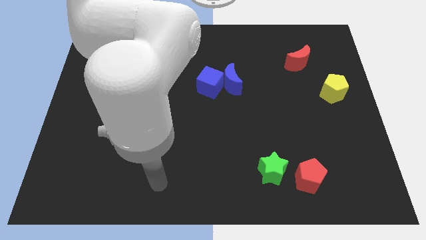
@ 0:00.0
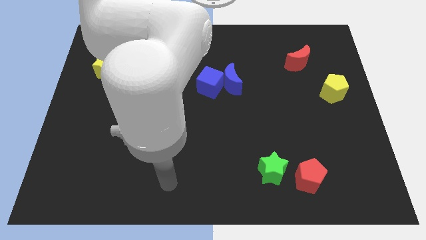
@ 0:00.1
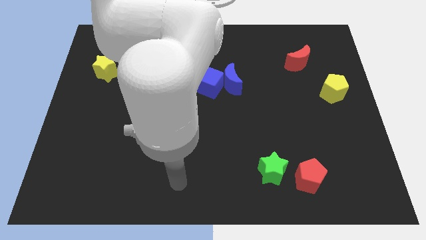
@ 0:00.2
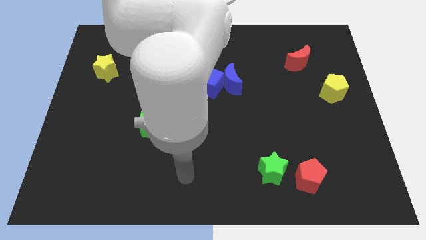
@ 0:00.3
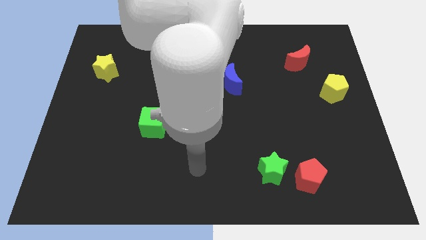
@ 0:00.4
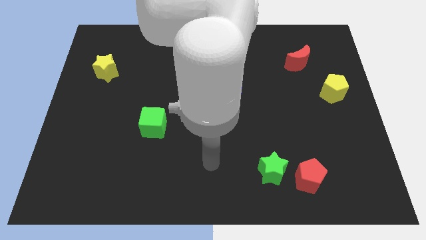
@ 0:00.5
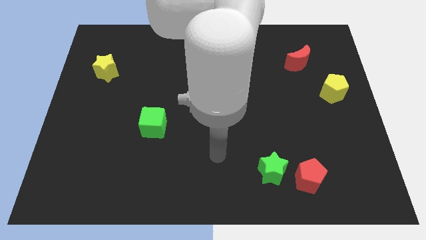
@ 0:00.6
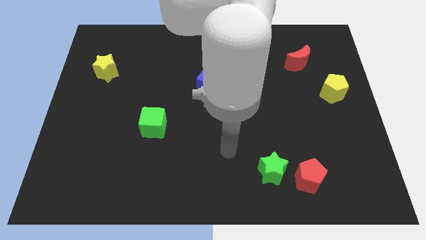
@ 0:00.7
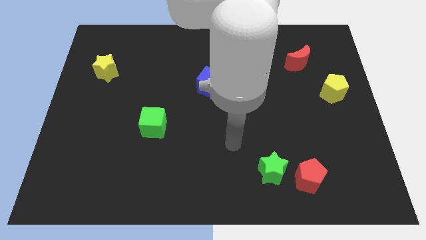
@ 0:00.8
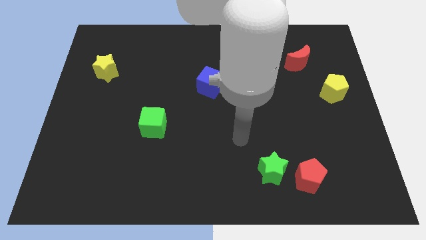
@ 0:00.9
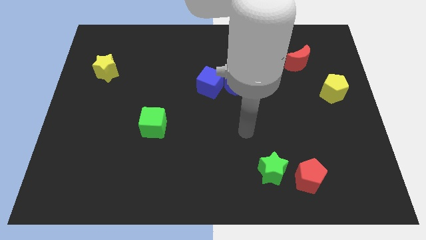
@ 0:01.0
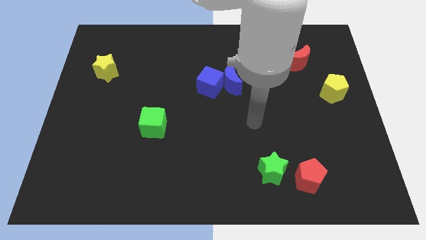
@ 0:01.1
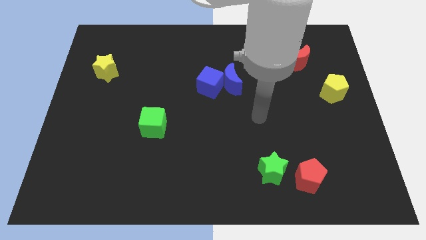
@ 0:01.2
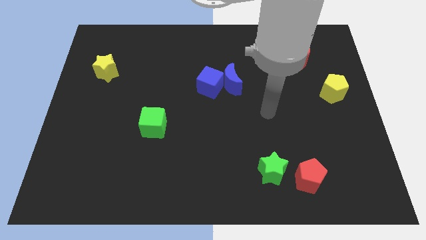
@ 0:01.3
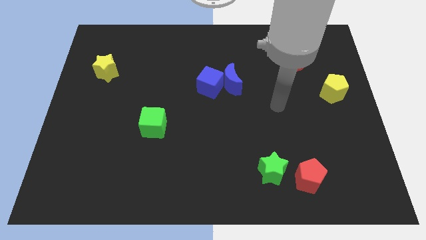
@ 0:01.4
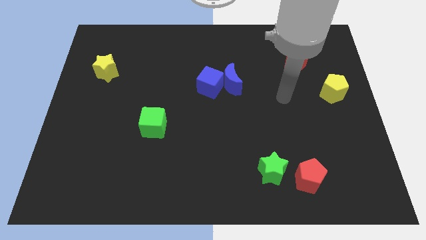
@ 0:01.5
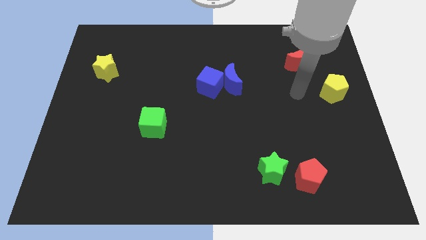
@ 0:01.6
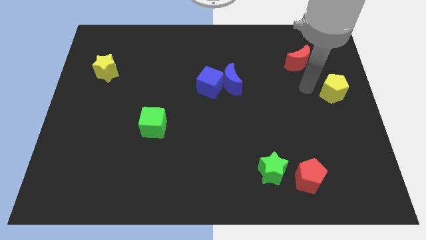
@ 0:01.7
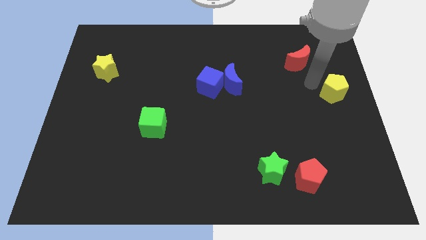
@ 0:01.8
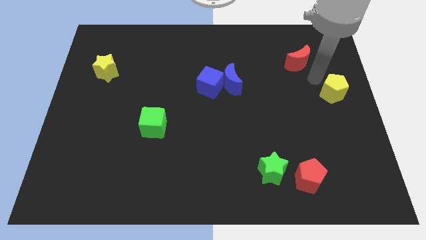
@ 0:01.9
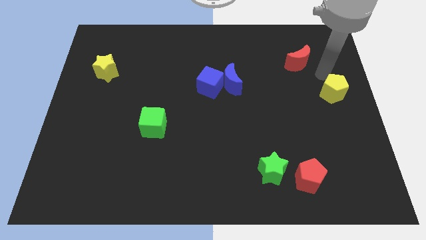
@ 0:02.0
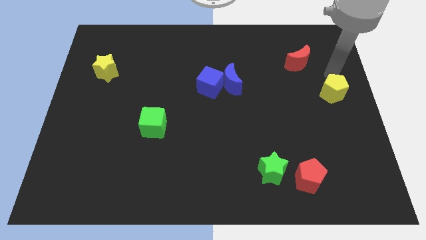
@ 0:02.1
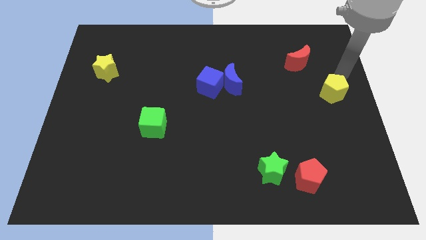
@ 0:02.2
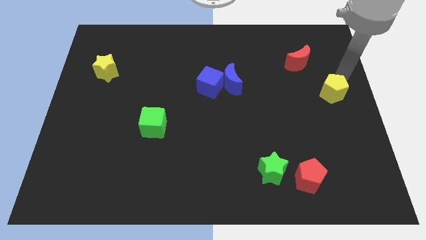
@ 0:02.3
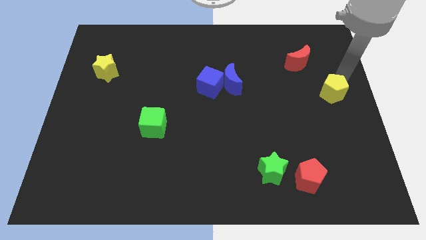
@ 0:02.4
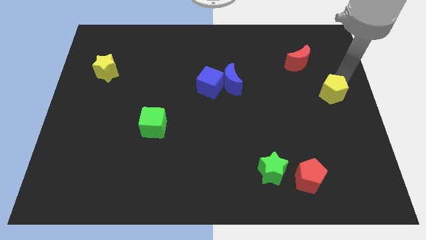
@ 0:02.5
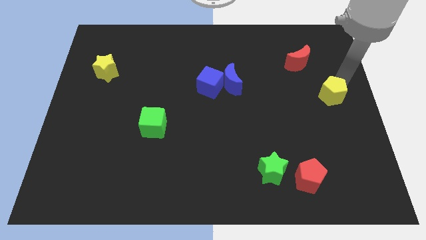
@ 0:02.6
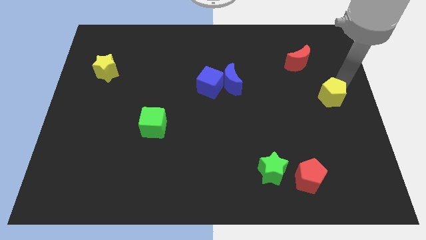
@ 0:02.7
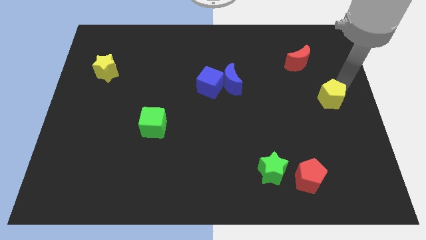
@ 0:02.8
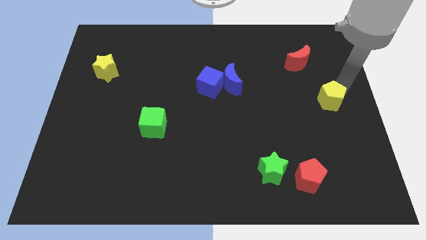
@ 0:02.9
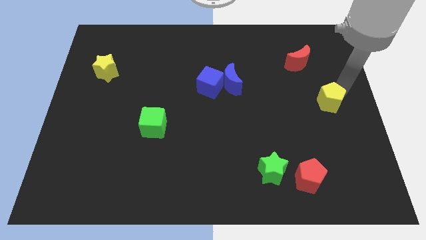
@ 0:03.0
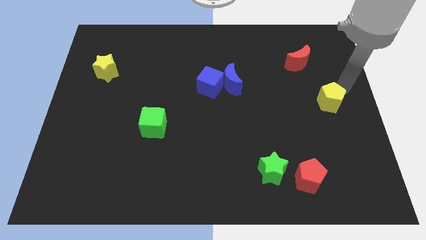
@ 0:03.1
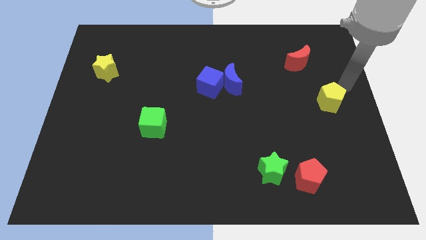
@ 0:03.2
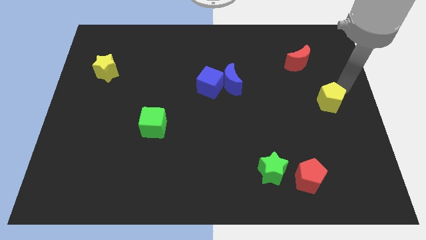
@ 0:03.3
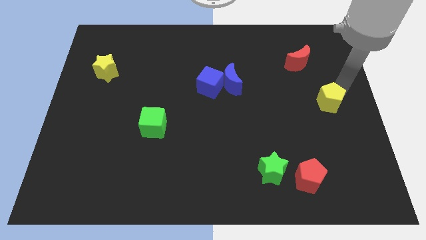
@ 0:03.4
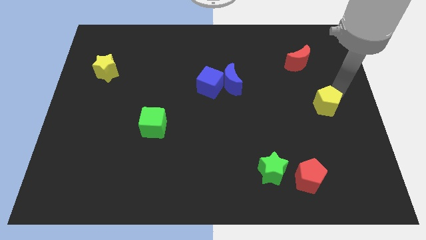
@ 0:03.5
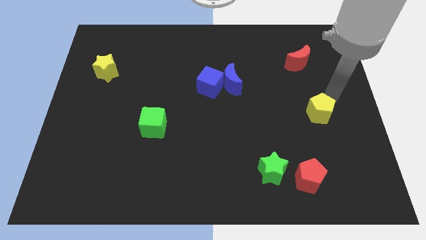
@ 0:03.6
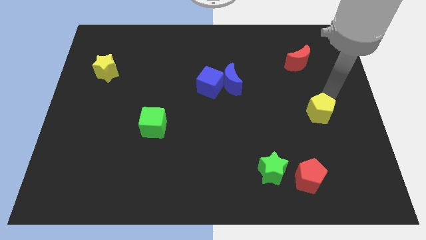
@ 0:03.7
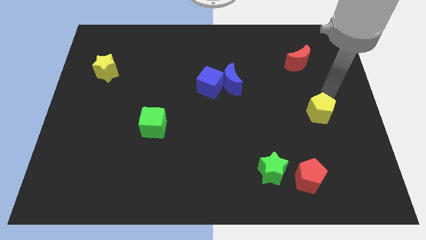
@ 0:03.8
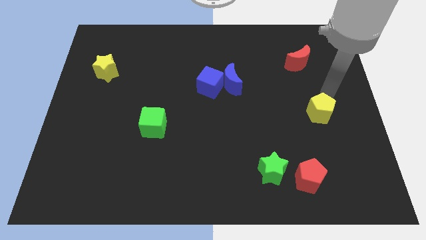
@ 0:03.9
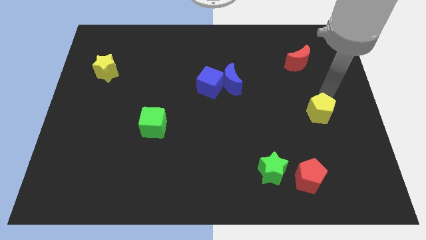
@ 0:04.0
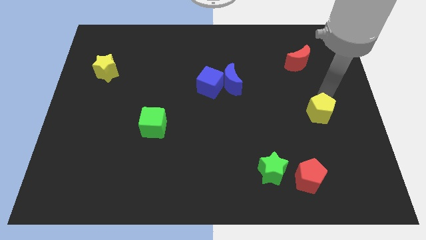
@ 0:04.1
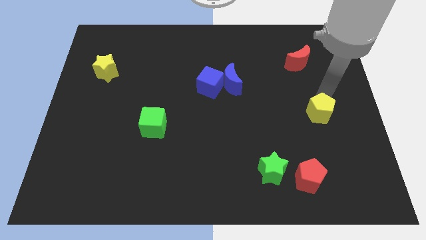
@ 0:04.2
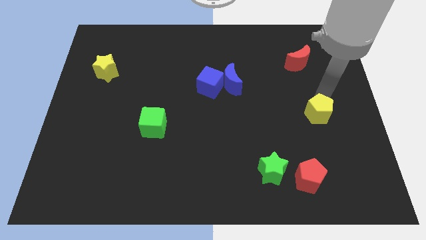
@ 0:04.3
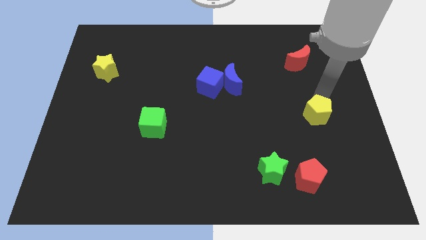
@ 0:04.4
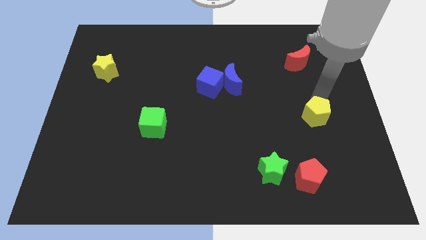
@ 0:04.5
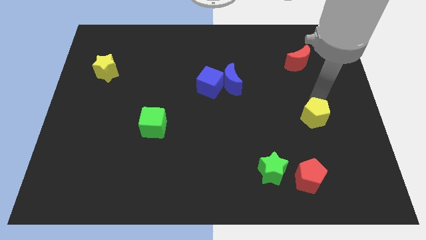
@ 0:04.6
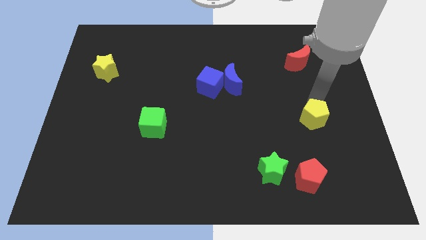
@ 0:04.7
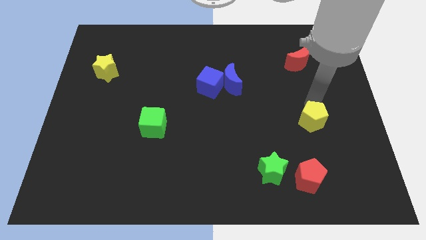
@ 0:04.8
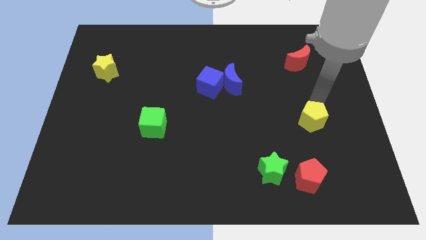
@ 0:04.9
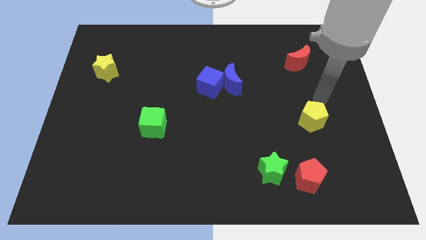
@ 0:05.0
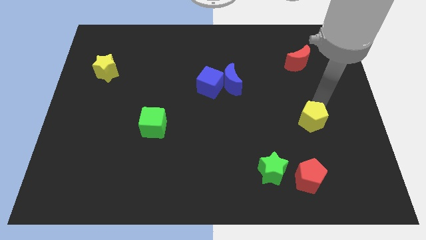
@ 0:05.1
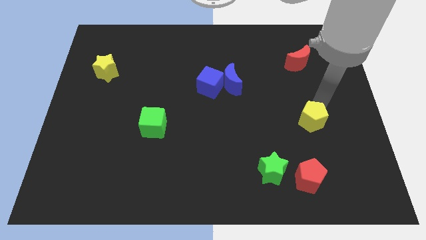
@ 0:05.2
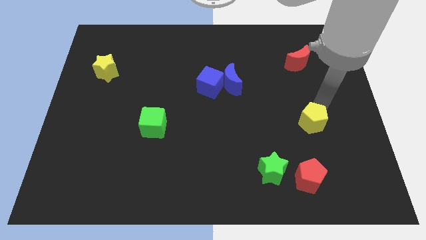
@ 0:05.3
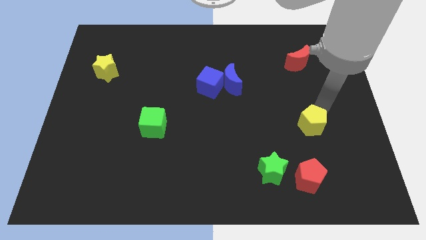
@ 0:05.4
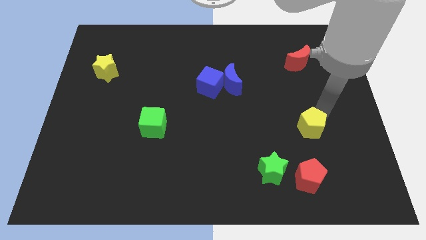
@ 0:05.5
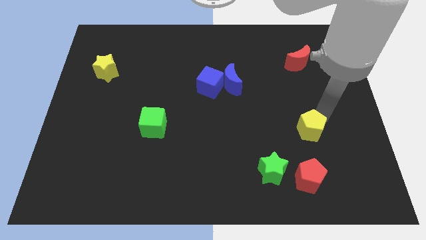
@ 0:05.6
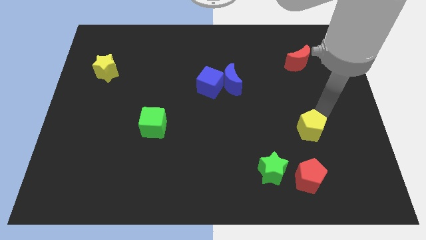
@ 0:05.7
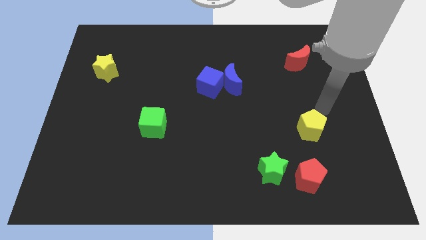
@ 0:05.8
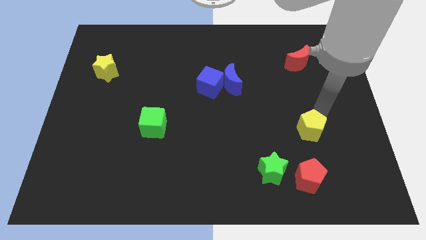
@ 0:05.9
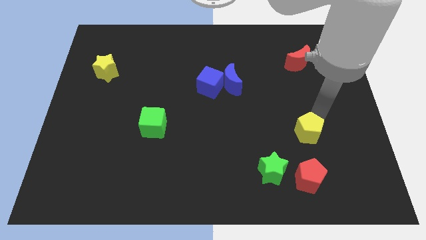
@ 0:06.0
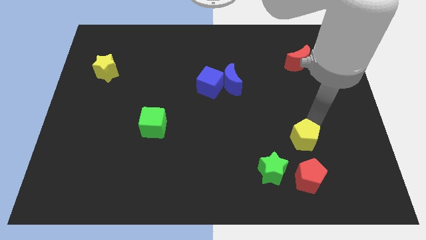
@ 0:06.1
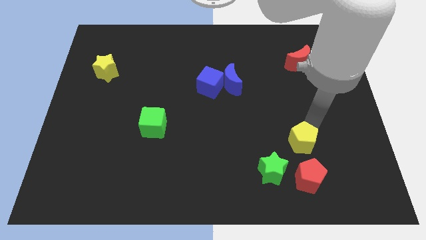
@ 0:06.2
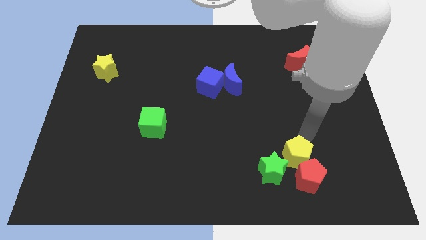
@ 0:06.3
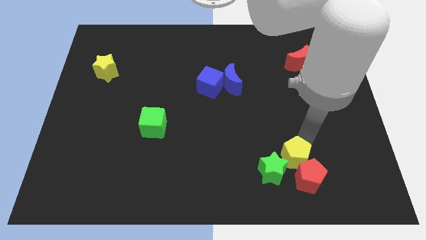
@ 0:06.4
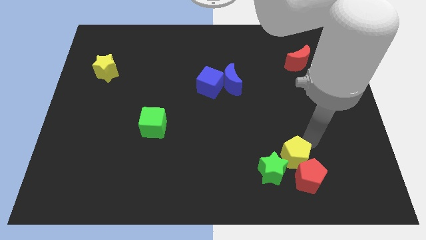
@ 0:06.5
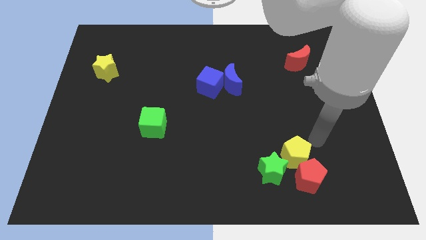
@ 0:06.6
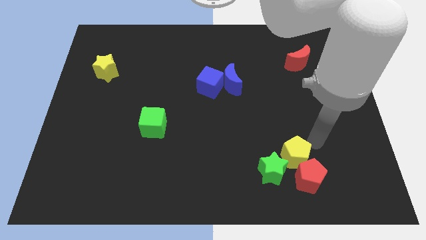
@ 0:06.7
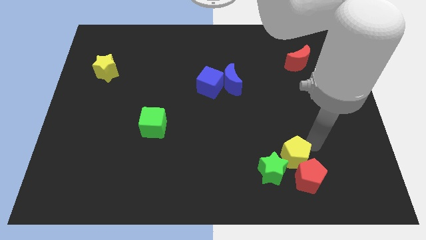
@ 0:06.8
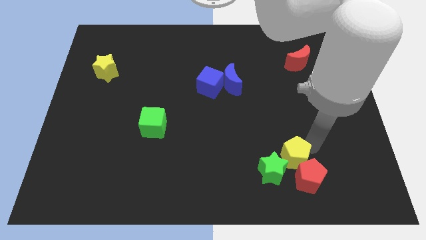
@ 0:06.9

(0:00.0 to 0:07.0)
put the yellow pentagon close to the green star
